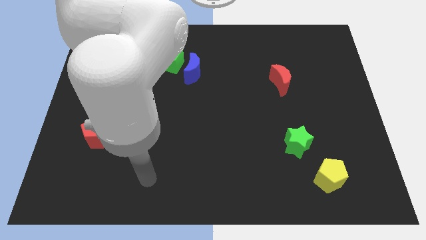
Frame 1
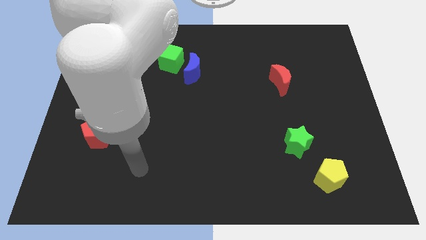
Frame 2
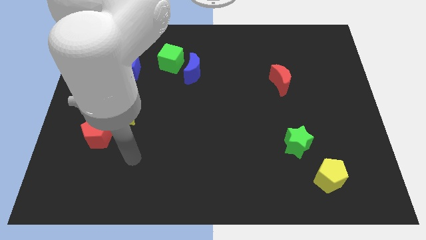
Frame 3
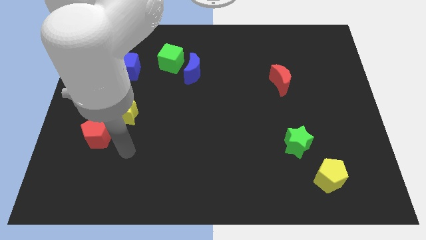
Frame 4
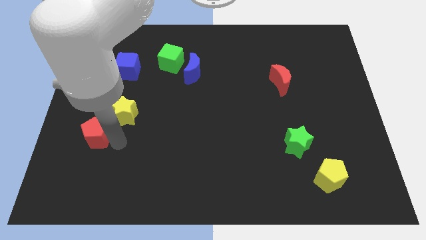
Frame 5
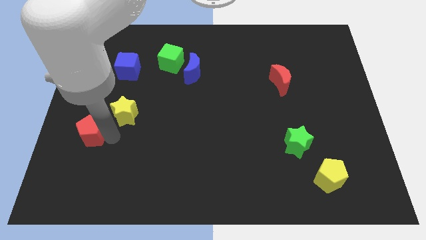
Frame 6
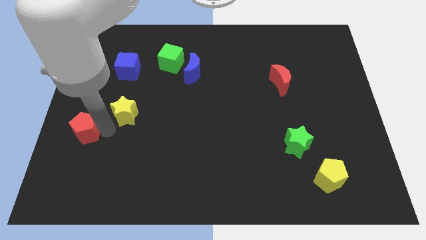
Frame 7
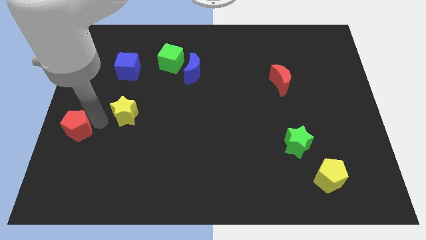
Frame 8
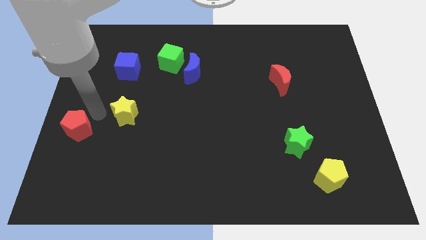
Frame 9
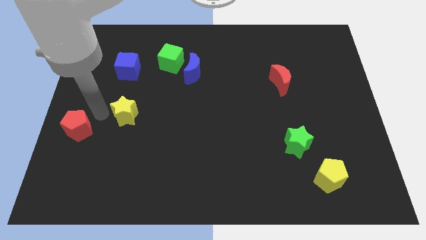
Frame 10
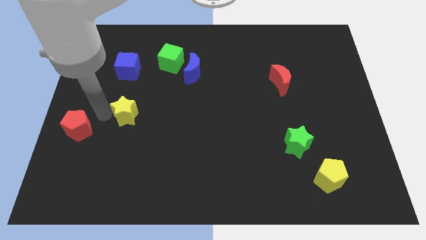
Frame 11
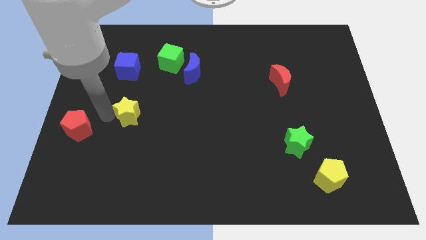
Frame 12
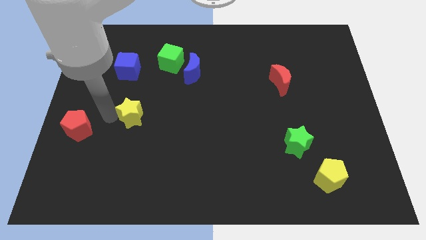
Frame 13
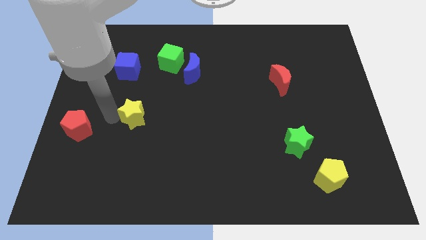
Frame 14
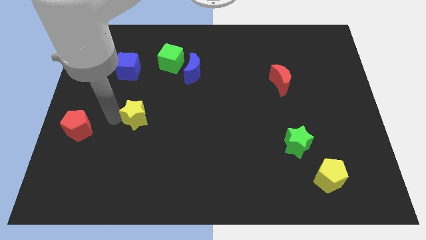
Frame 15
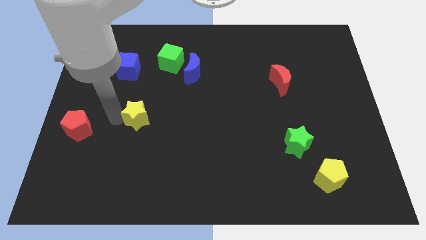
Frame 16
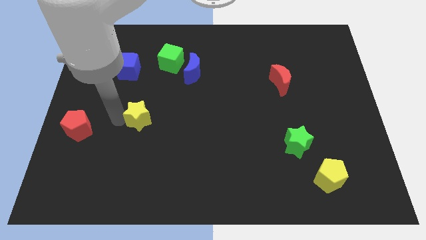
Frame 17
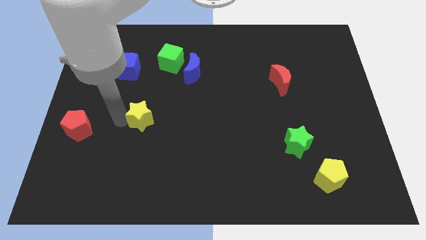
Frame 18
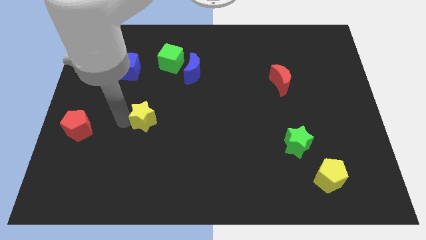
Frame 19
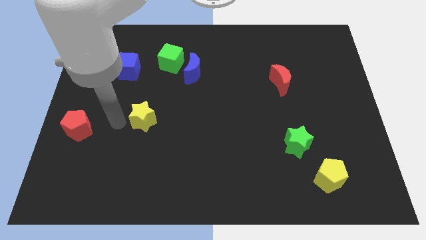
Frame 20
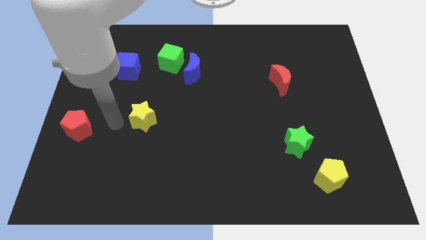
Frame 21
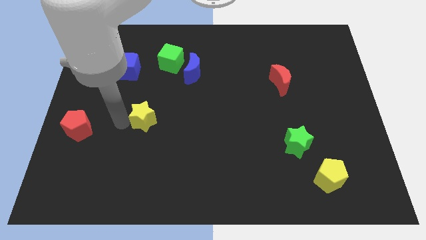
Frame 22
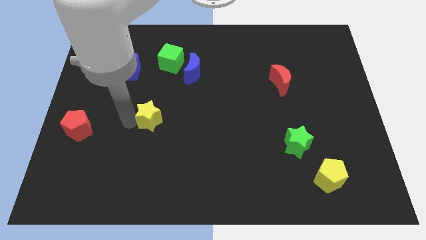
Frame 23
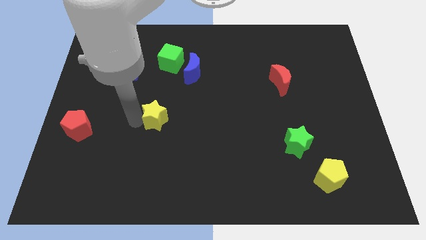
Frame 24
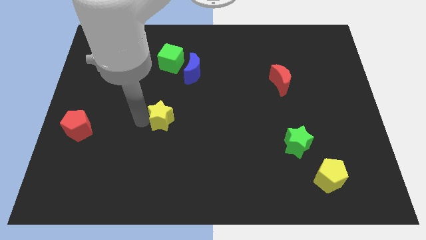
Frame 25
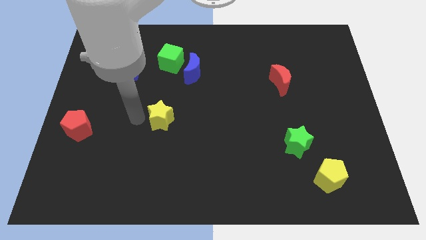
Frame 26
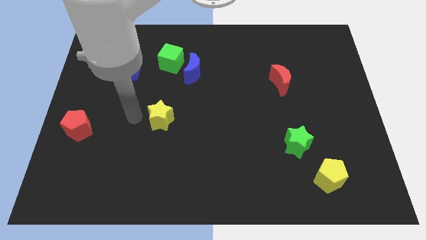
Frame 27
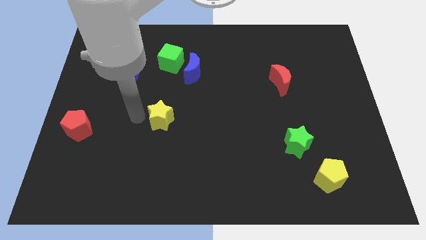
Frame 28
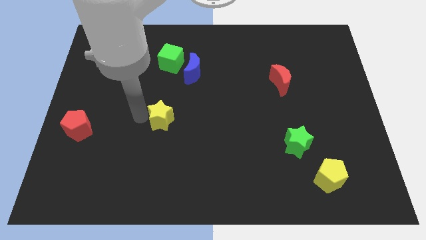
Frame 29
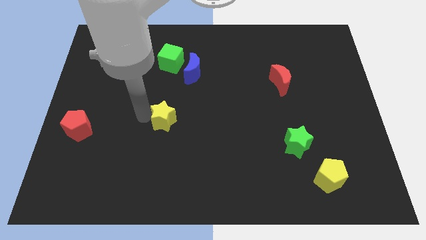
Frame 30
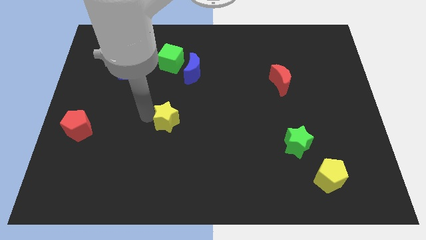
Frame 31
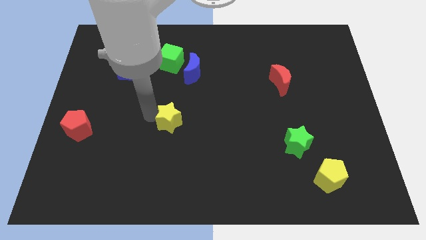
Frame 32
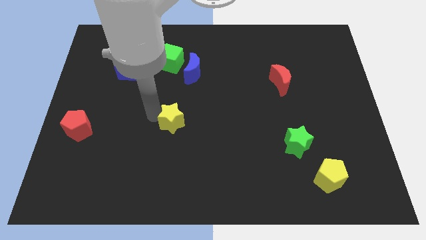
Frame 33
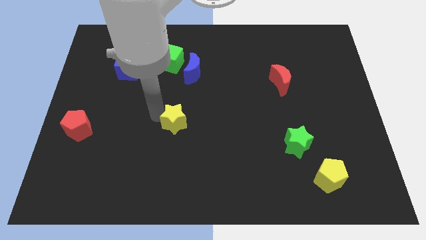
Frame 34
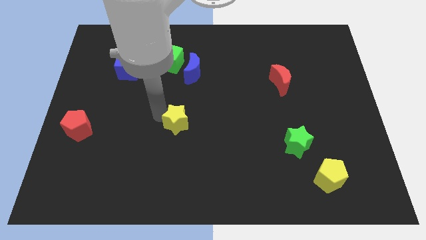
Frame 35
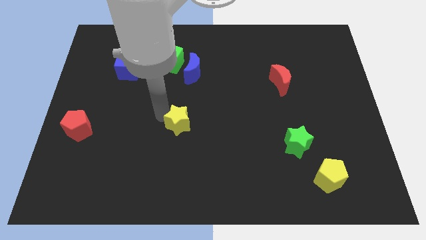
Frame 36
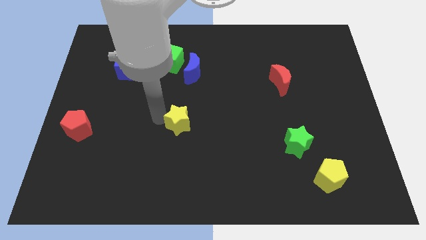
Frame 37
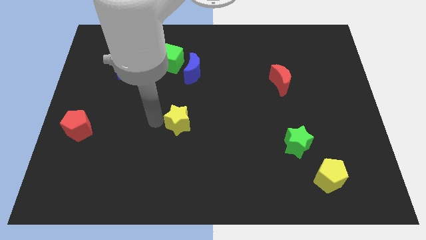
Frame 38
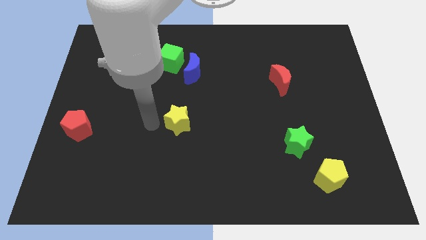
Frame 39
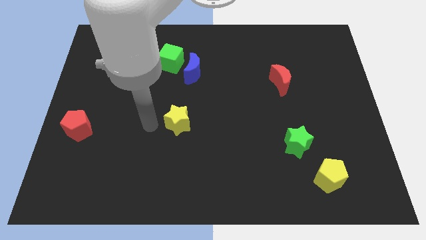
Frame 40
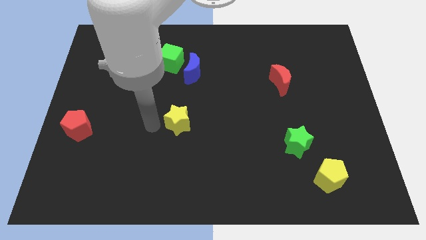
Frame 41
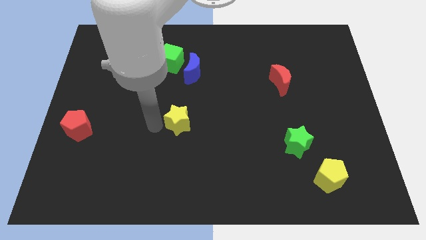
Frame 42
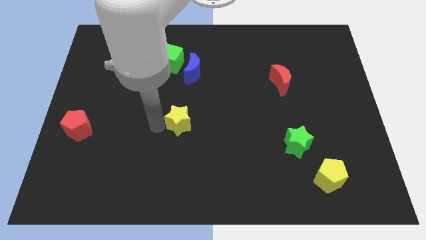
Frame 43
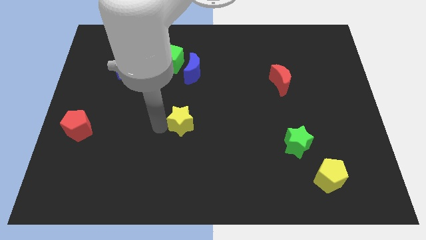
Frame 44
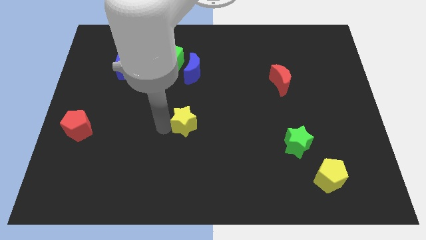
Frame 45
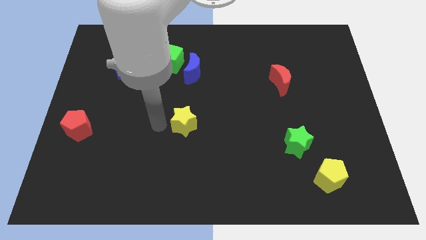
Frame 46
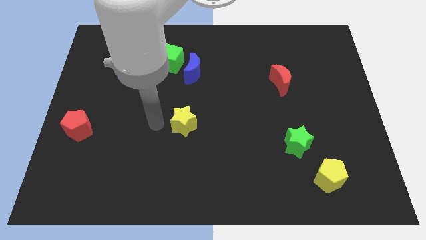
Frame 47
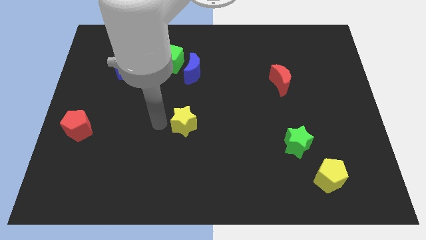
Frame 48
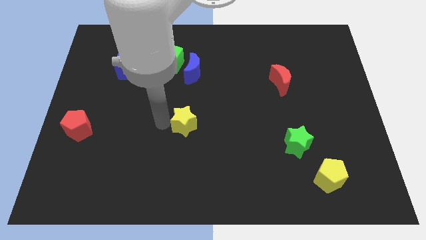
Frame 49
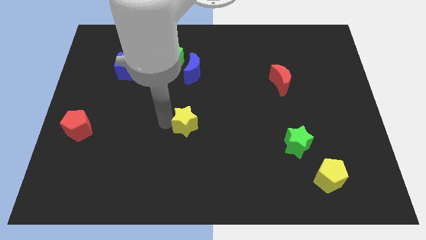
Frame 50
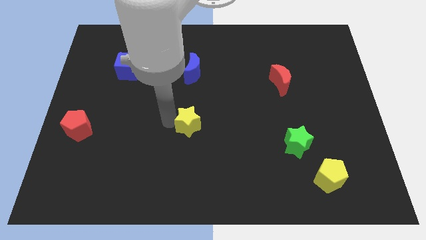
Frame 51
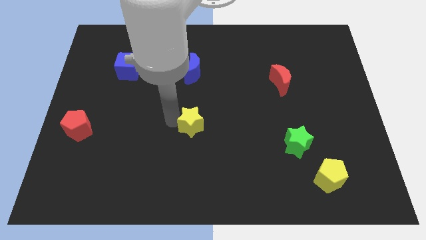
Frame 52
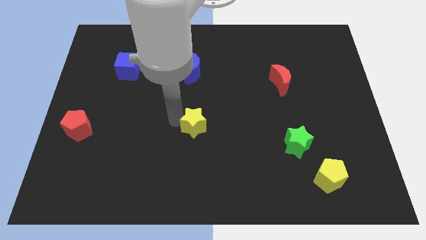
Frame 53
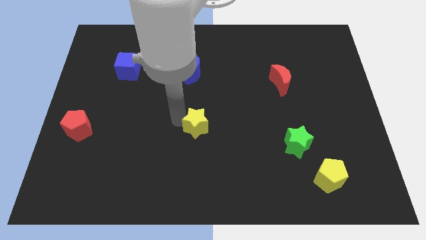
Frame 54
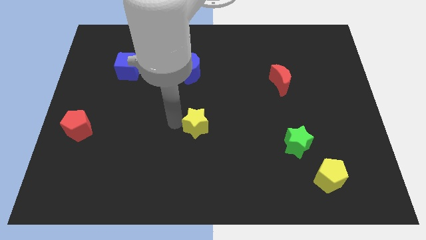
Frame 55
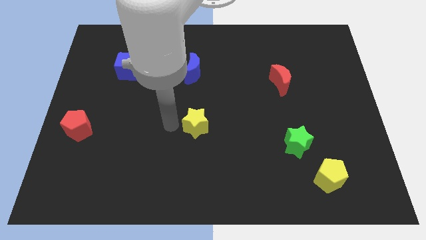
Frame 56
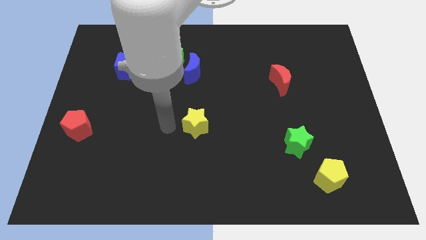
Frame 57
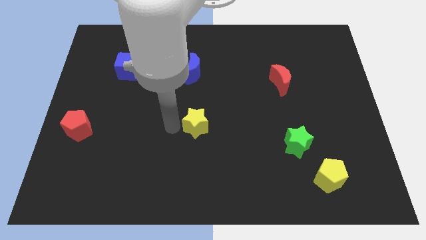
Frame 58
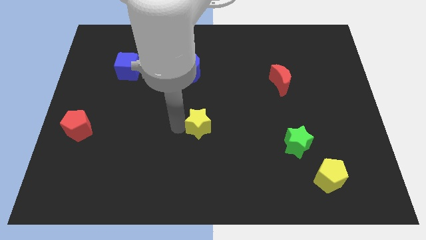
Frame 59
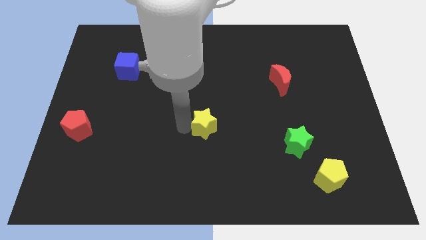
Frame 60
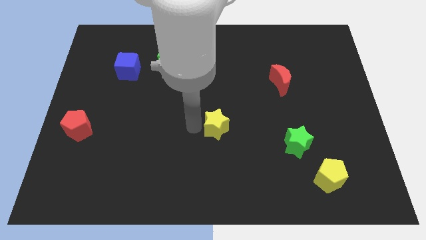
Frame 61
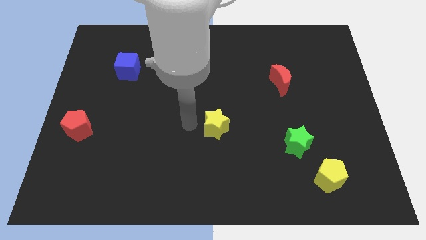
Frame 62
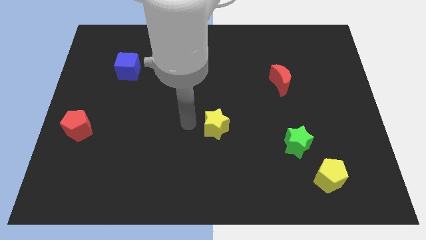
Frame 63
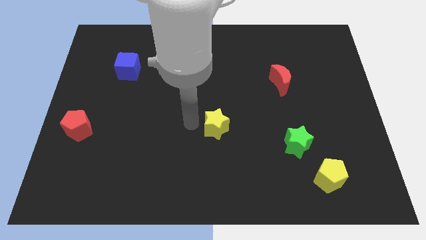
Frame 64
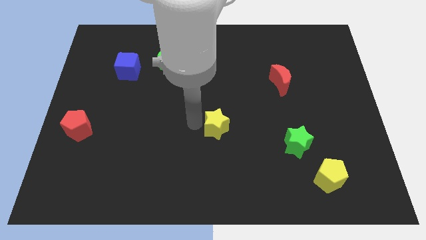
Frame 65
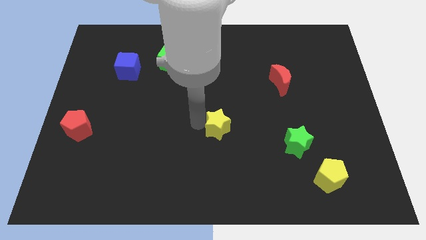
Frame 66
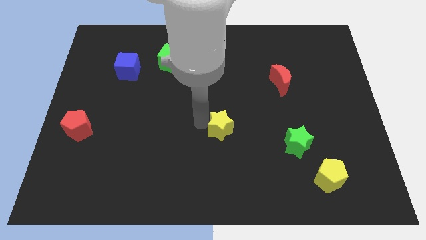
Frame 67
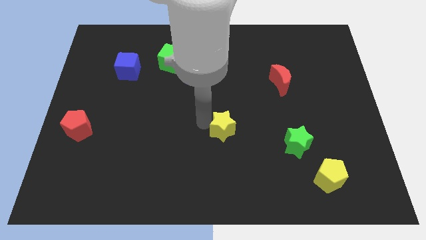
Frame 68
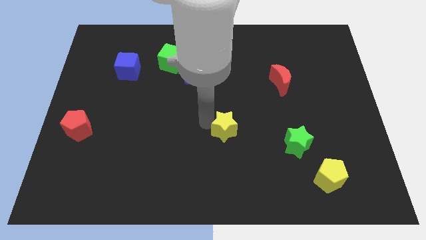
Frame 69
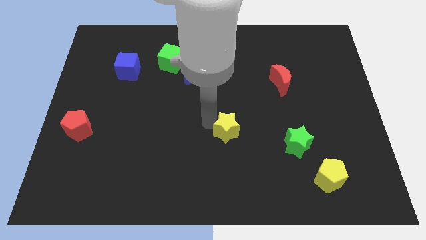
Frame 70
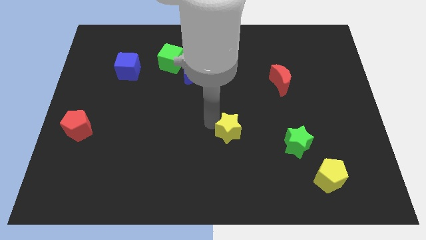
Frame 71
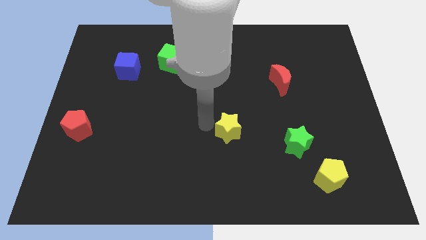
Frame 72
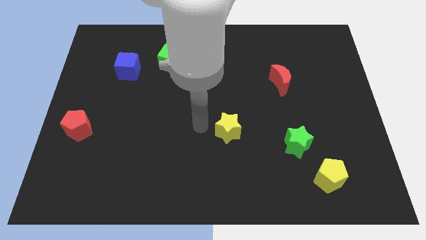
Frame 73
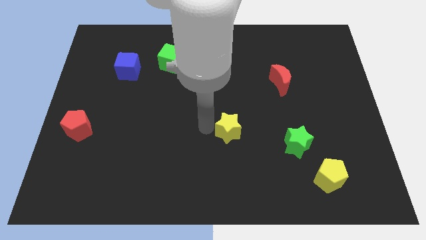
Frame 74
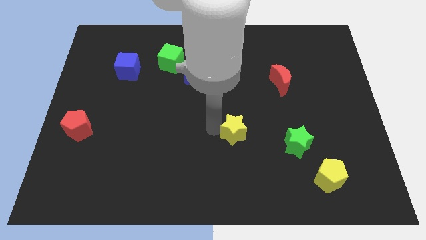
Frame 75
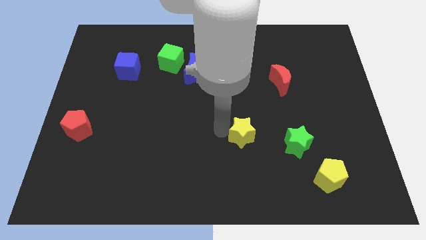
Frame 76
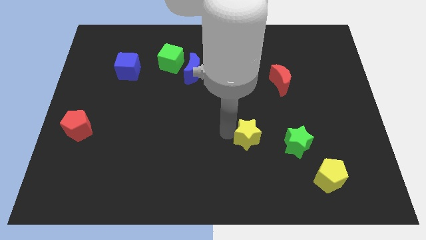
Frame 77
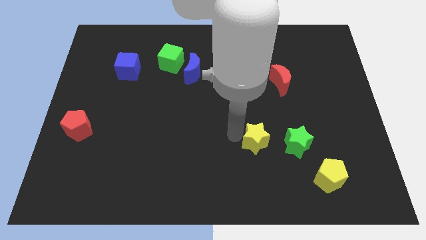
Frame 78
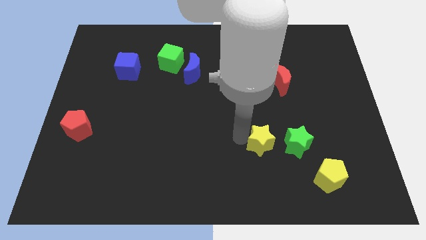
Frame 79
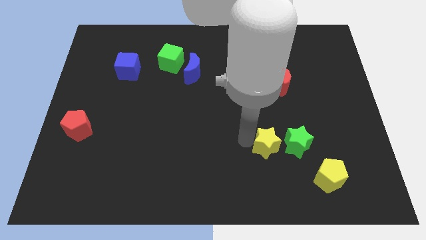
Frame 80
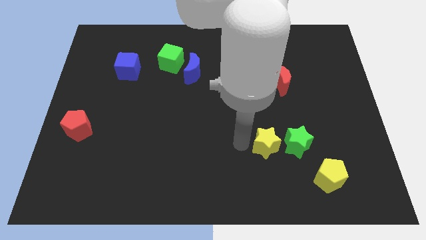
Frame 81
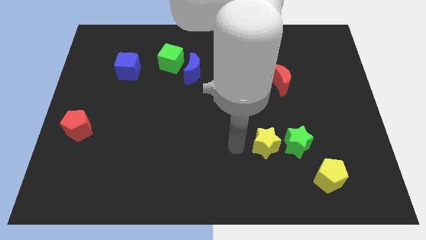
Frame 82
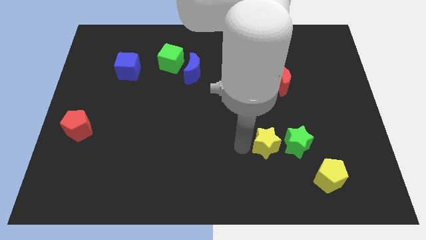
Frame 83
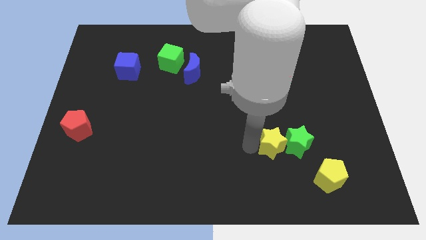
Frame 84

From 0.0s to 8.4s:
slide the yellow star to the green star
